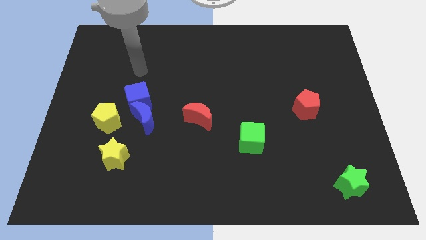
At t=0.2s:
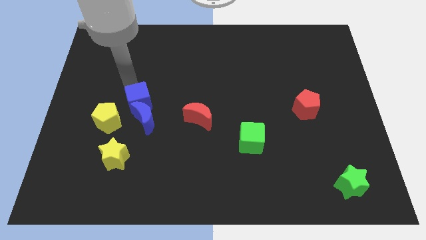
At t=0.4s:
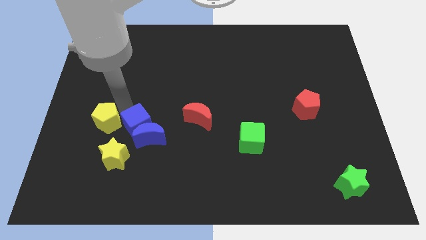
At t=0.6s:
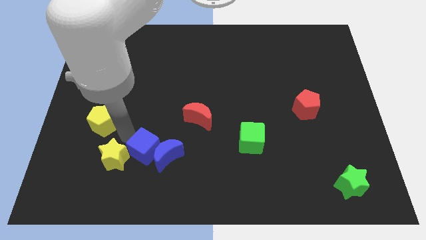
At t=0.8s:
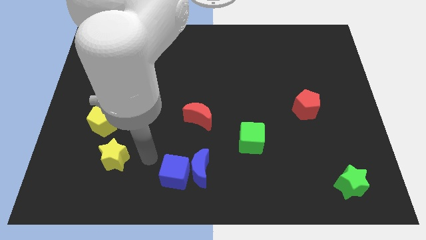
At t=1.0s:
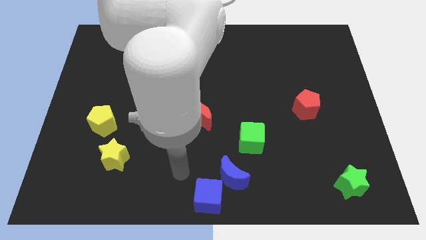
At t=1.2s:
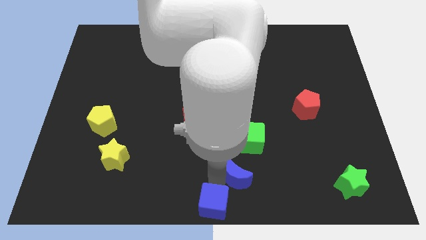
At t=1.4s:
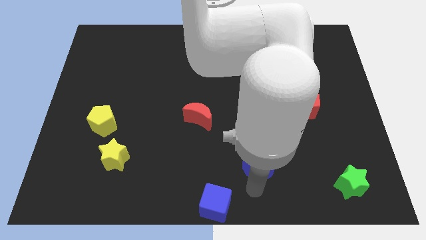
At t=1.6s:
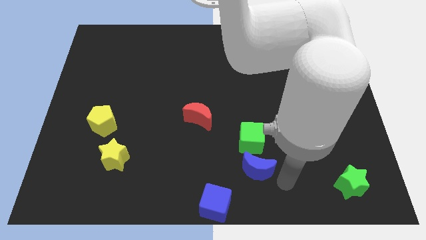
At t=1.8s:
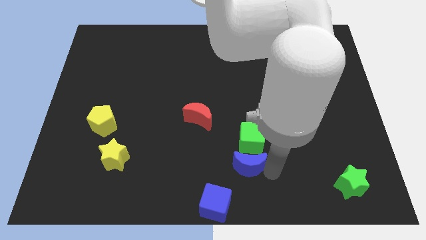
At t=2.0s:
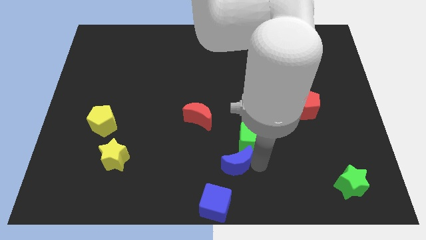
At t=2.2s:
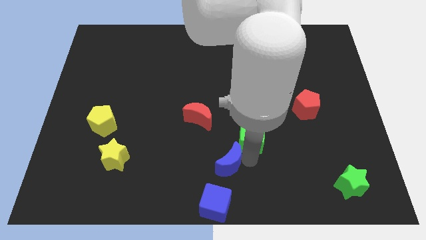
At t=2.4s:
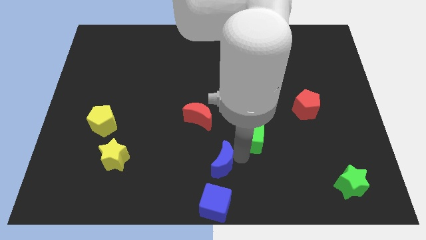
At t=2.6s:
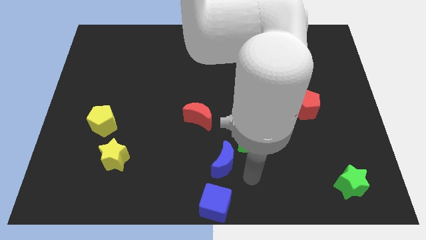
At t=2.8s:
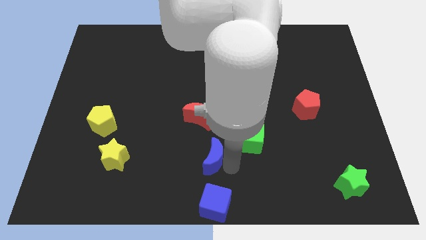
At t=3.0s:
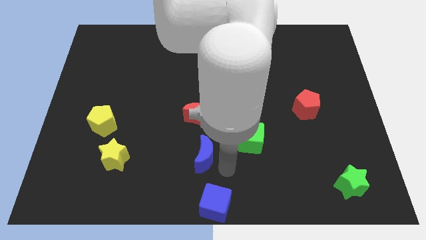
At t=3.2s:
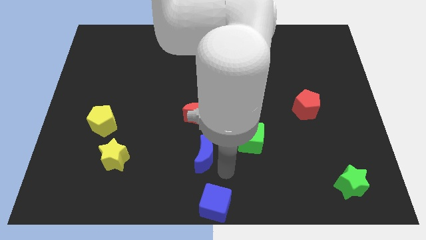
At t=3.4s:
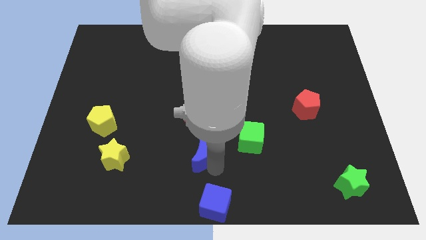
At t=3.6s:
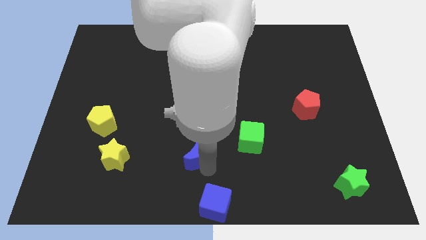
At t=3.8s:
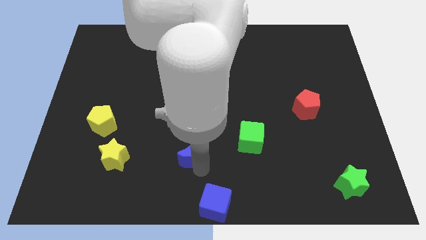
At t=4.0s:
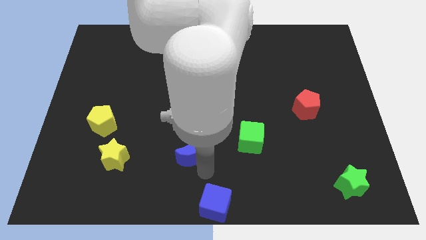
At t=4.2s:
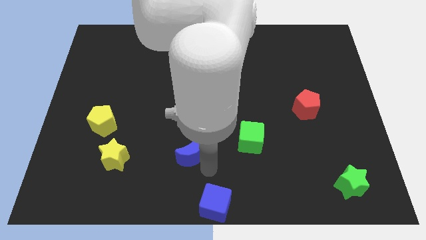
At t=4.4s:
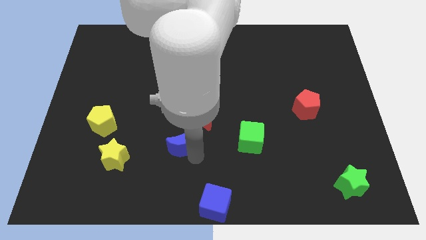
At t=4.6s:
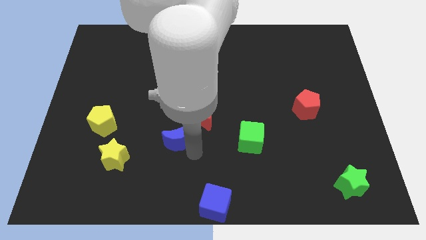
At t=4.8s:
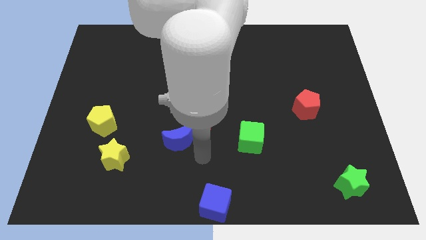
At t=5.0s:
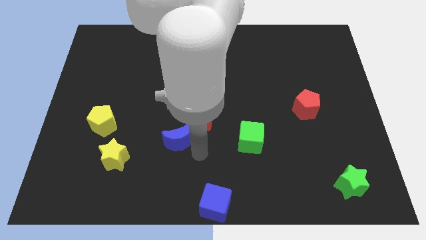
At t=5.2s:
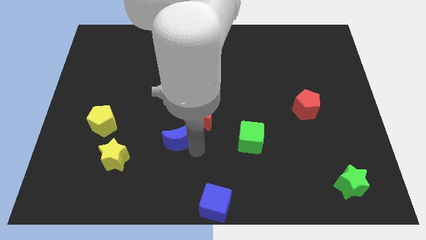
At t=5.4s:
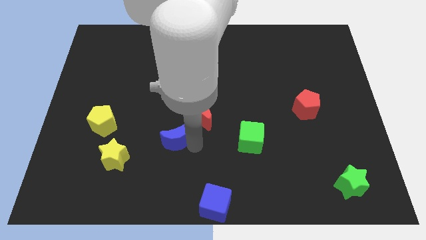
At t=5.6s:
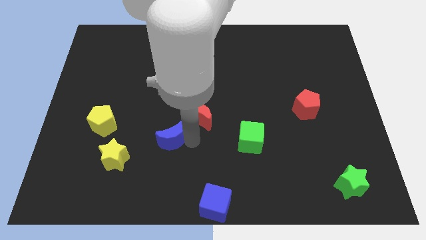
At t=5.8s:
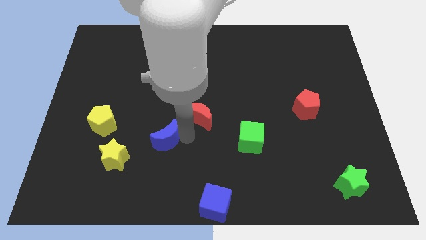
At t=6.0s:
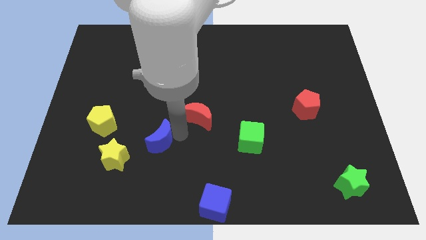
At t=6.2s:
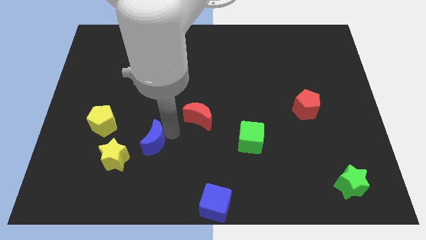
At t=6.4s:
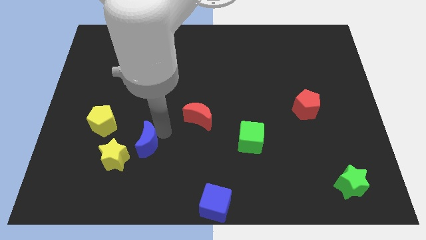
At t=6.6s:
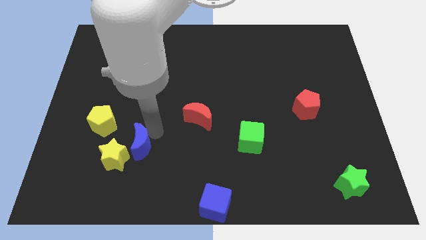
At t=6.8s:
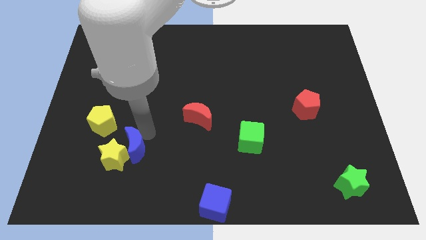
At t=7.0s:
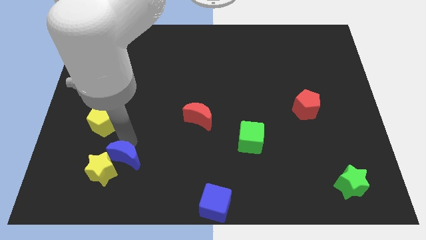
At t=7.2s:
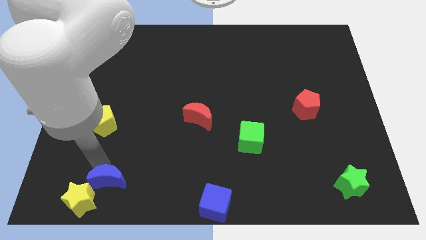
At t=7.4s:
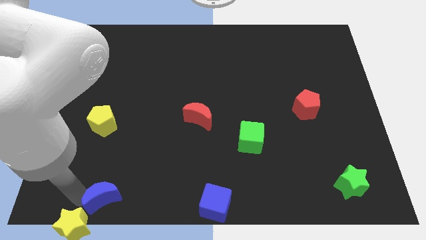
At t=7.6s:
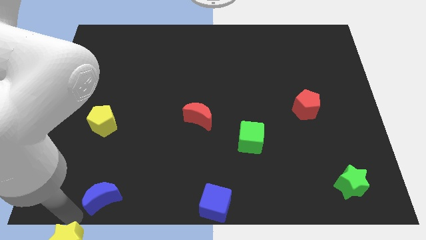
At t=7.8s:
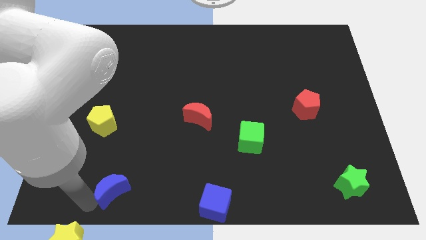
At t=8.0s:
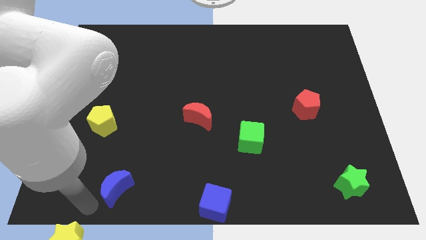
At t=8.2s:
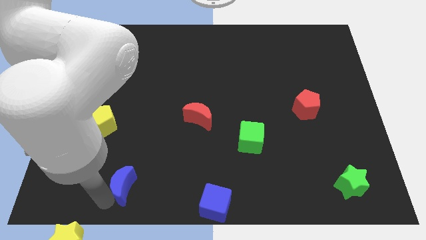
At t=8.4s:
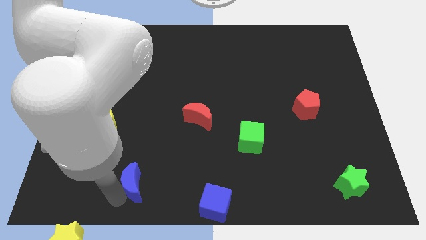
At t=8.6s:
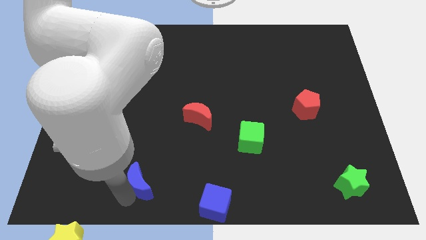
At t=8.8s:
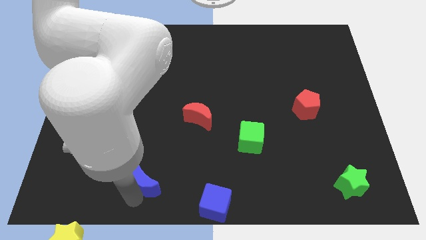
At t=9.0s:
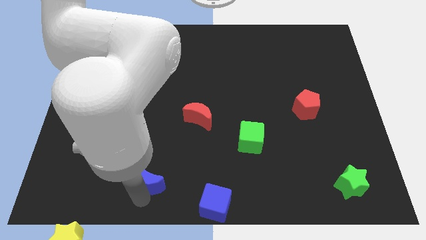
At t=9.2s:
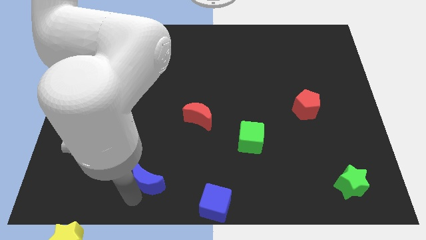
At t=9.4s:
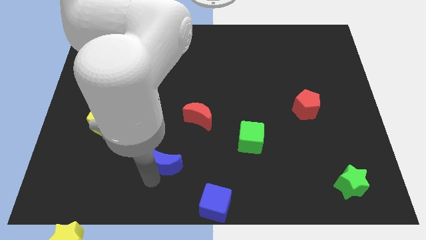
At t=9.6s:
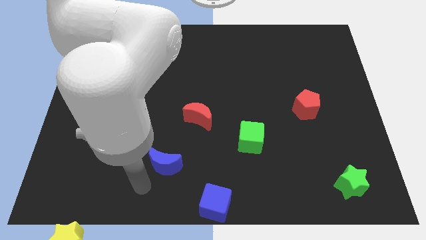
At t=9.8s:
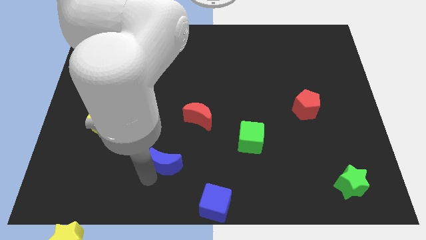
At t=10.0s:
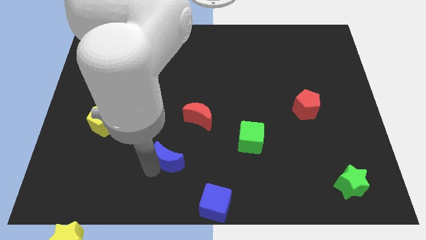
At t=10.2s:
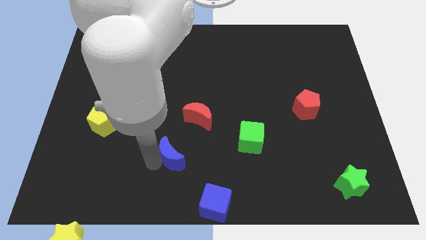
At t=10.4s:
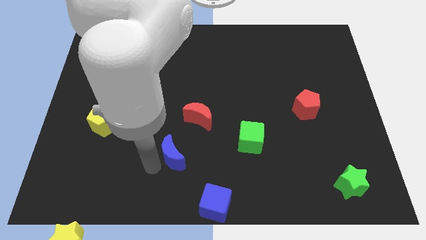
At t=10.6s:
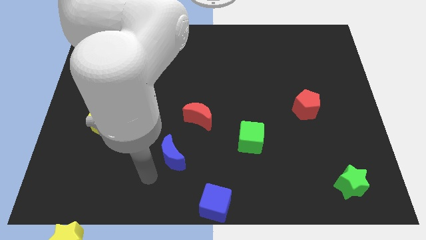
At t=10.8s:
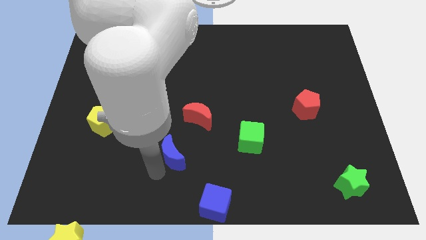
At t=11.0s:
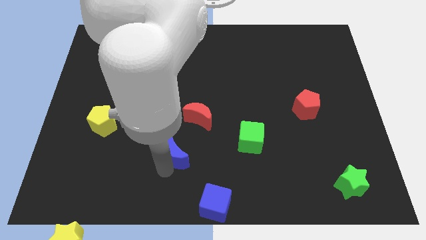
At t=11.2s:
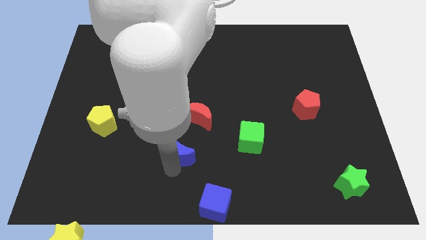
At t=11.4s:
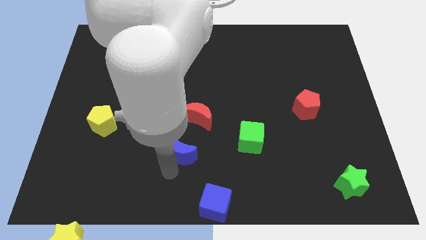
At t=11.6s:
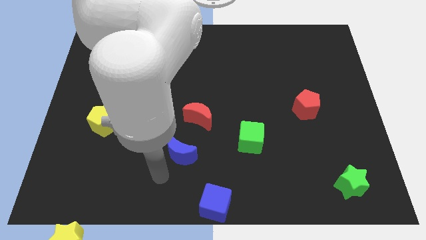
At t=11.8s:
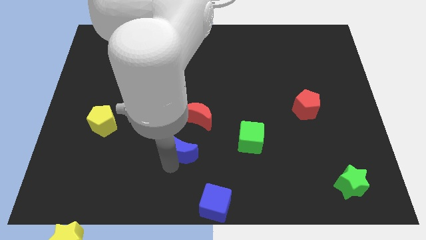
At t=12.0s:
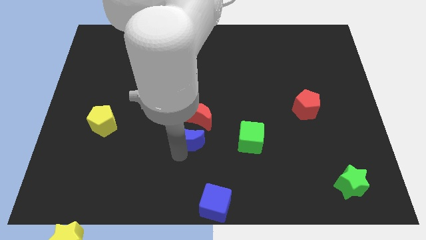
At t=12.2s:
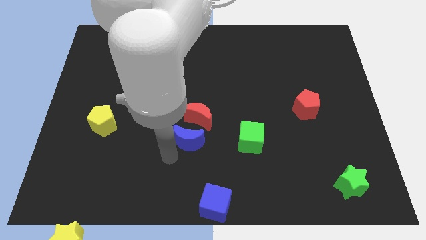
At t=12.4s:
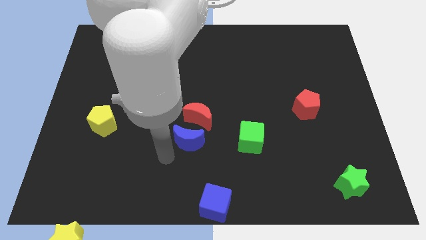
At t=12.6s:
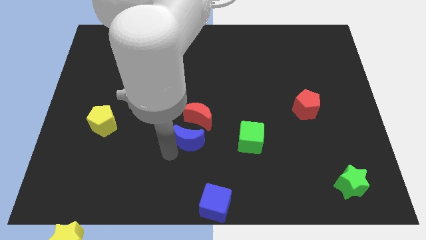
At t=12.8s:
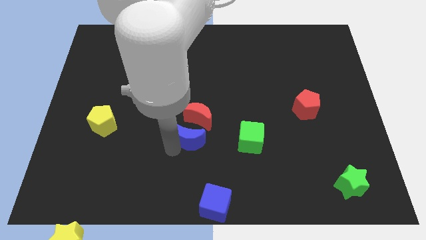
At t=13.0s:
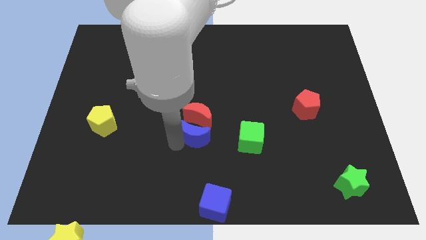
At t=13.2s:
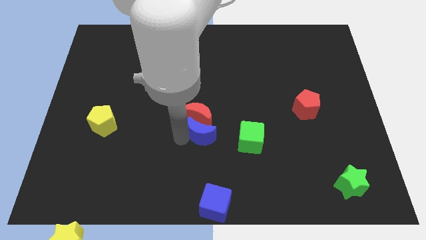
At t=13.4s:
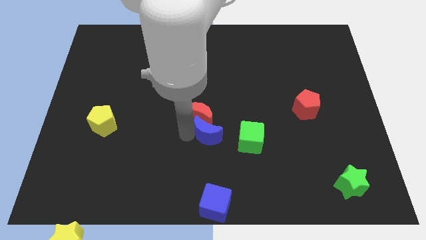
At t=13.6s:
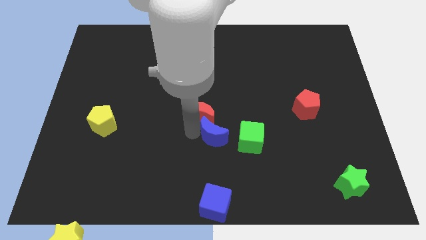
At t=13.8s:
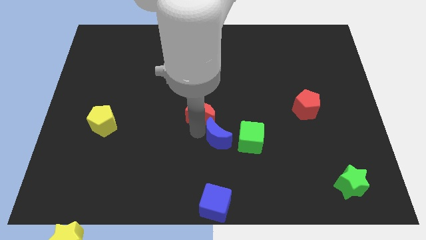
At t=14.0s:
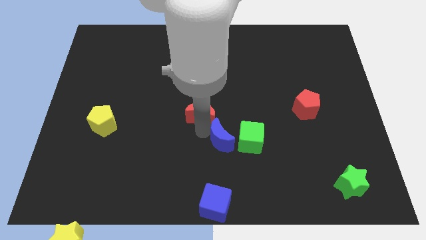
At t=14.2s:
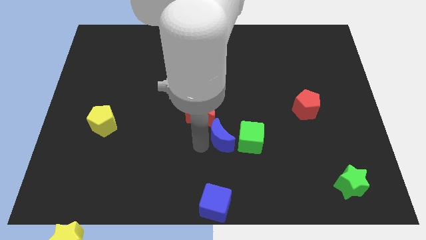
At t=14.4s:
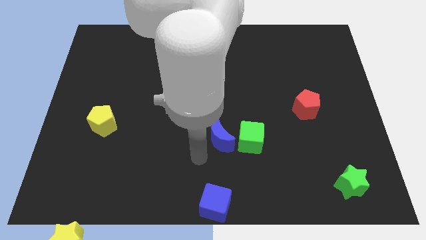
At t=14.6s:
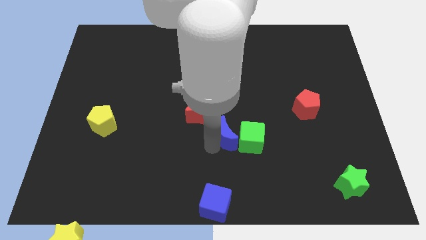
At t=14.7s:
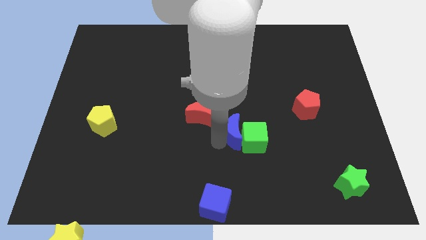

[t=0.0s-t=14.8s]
put the blue moon right of the red moon
